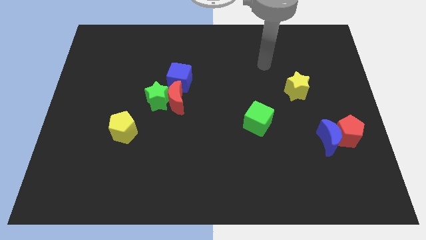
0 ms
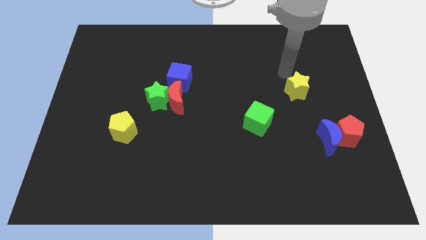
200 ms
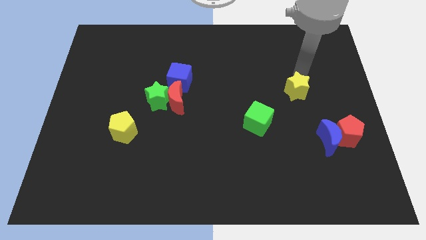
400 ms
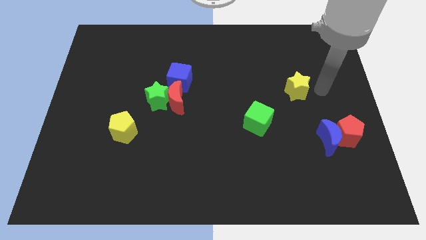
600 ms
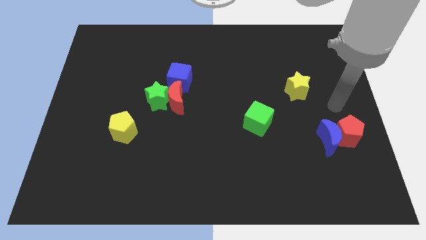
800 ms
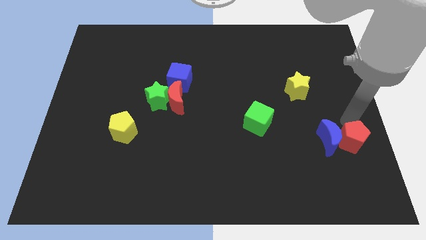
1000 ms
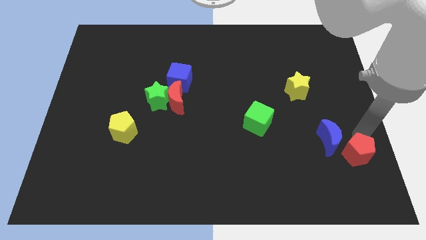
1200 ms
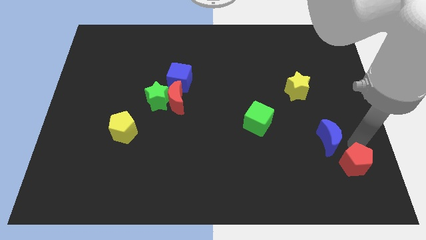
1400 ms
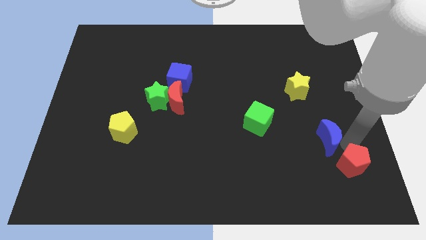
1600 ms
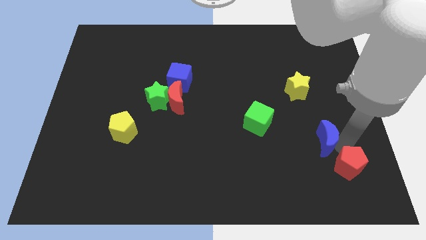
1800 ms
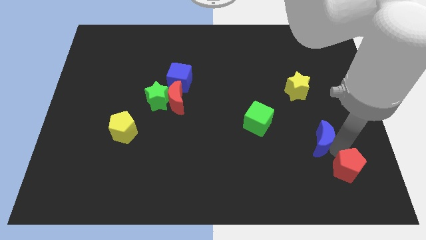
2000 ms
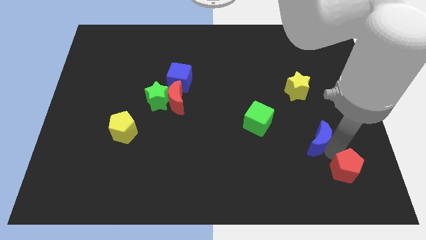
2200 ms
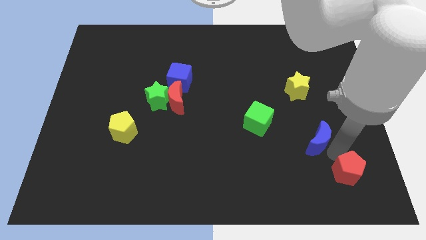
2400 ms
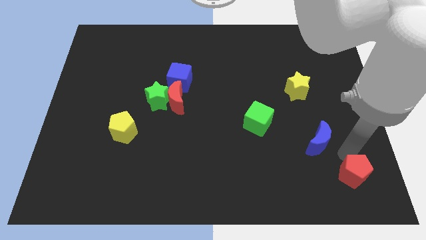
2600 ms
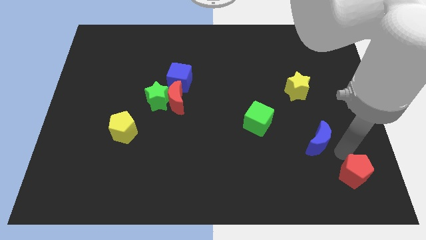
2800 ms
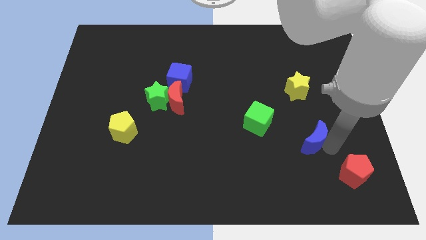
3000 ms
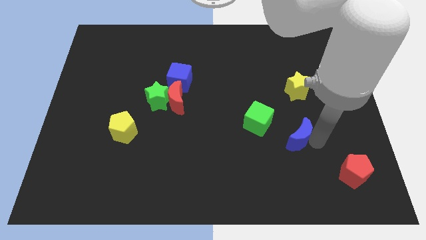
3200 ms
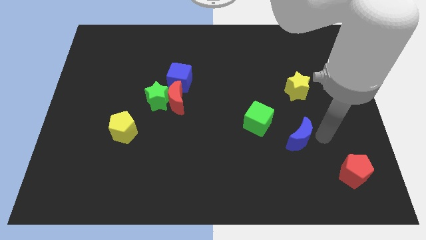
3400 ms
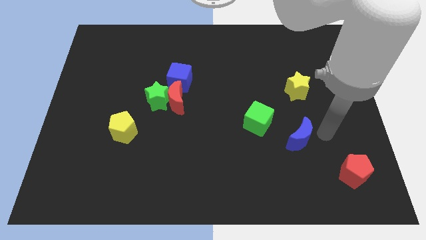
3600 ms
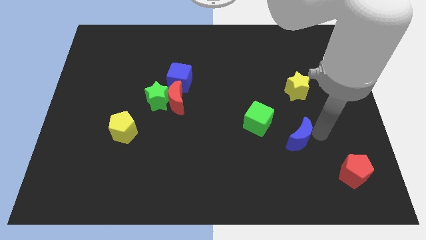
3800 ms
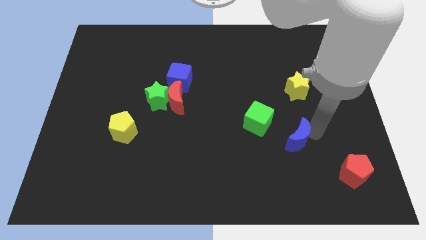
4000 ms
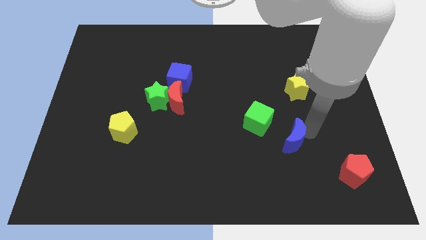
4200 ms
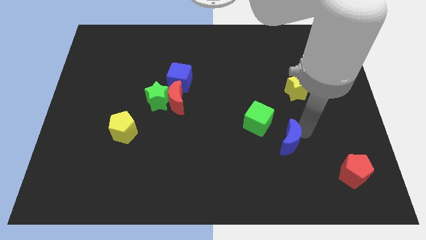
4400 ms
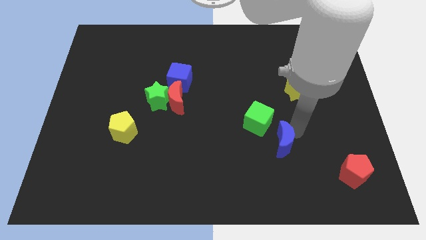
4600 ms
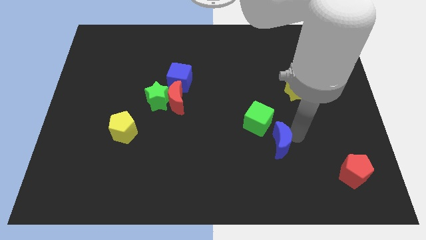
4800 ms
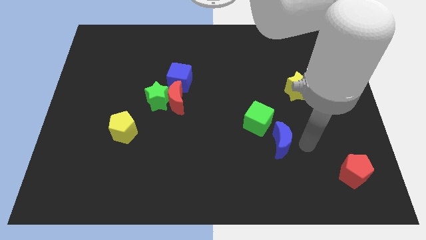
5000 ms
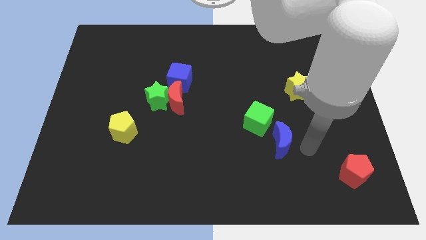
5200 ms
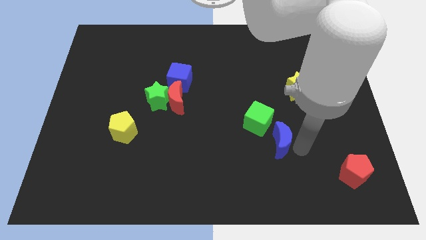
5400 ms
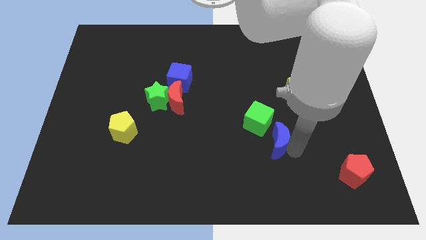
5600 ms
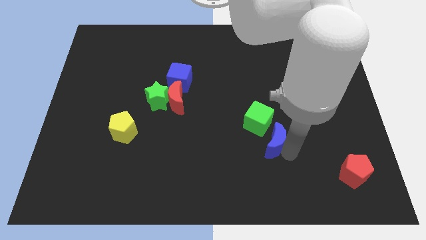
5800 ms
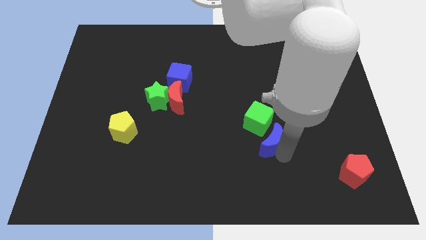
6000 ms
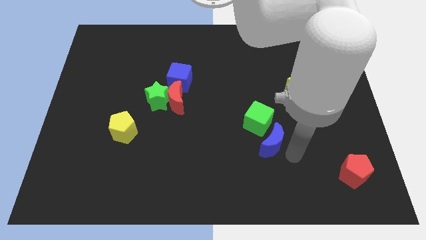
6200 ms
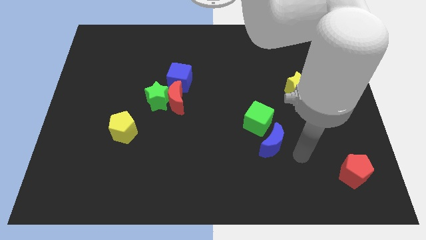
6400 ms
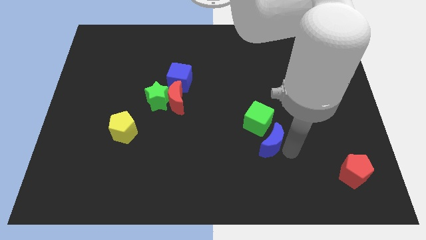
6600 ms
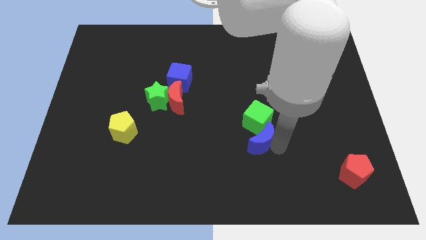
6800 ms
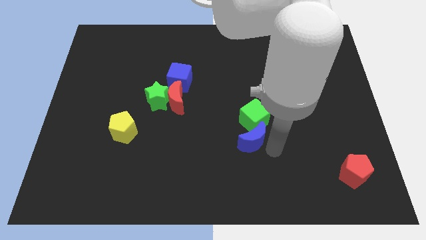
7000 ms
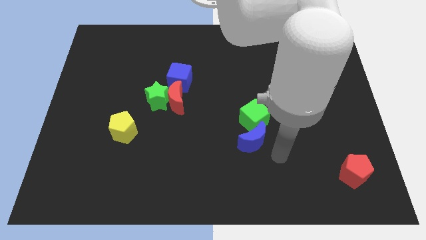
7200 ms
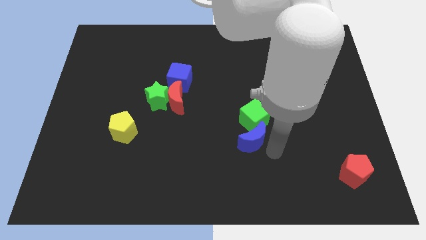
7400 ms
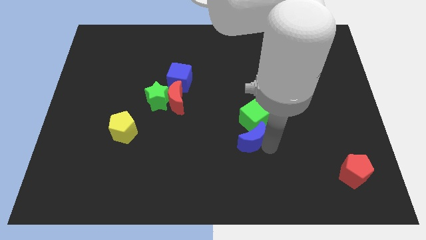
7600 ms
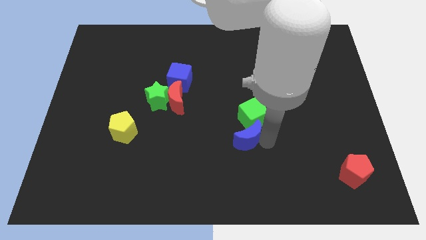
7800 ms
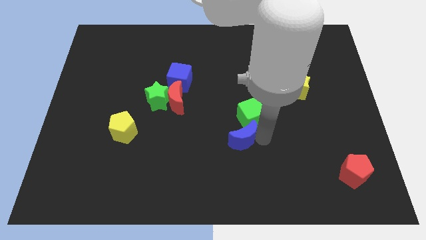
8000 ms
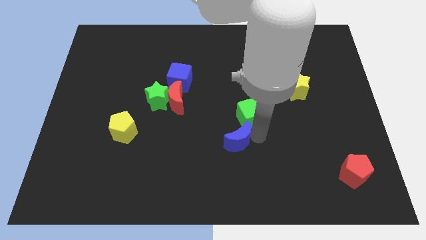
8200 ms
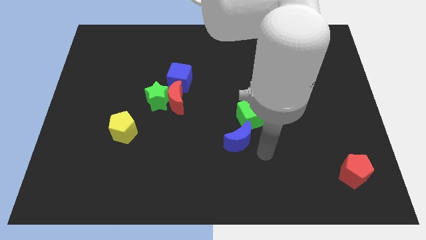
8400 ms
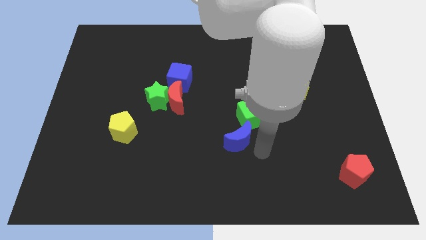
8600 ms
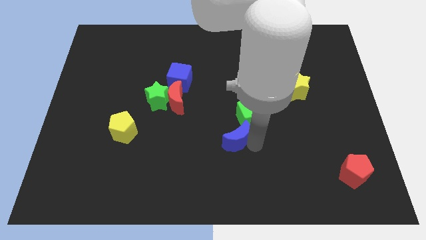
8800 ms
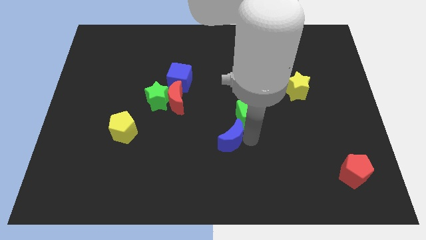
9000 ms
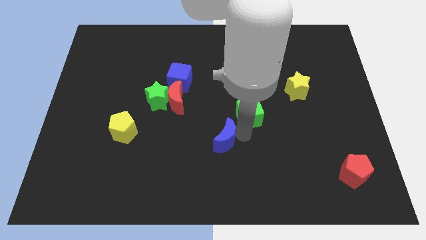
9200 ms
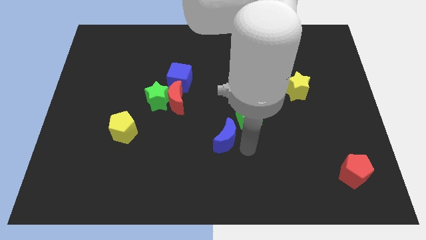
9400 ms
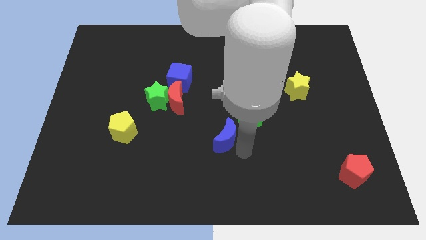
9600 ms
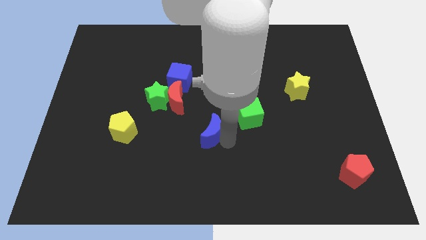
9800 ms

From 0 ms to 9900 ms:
put the blue moon to the bottom right of the red moon

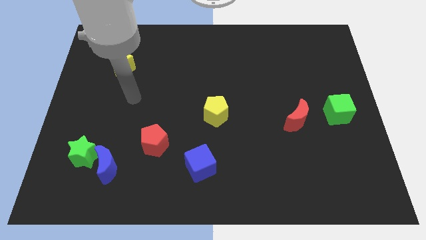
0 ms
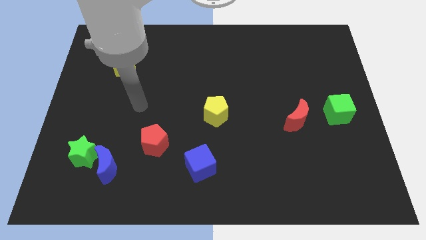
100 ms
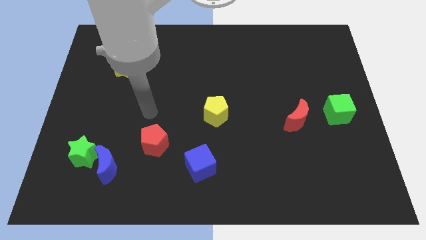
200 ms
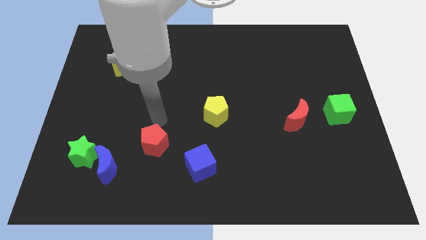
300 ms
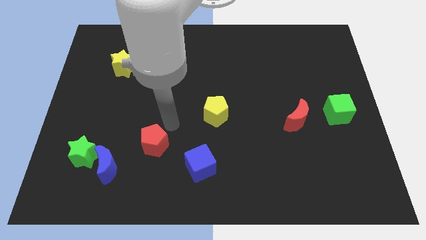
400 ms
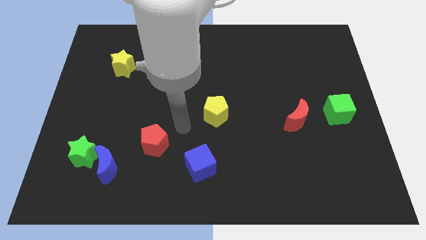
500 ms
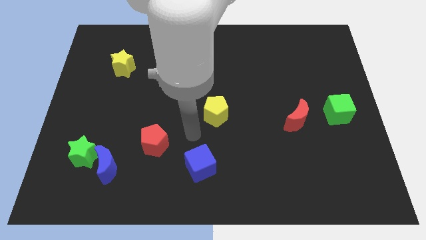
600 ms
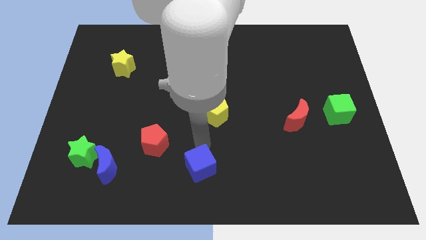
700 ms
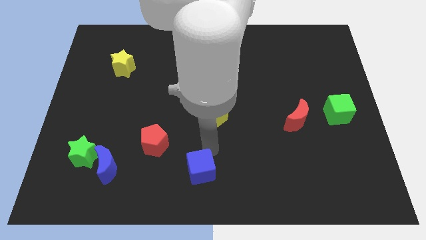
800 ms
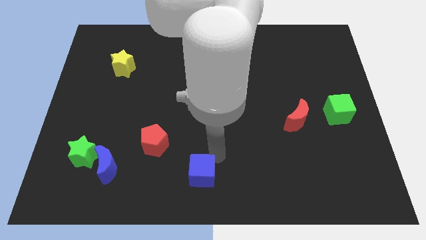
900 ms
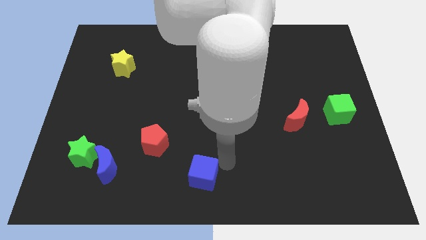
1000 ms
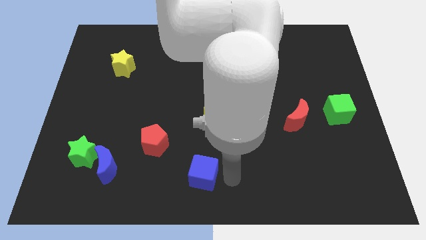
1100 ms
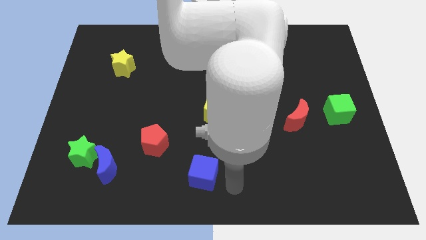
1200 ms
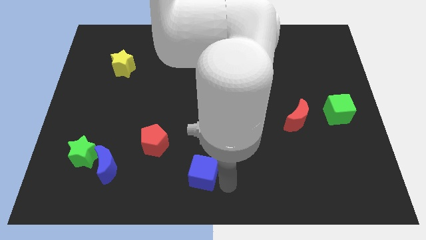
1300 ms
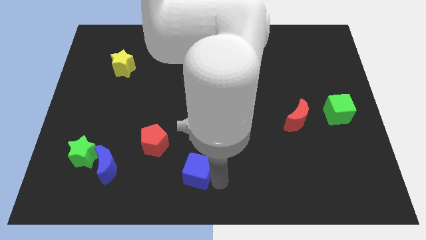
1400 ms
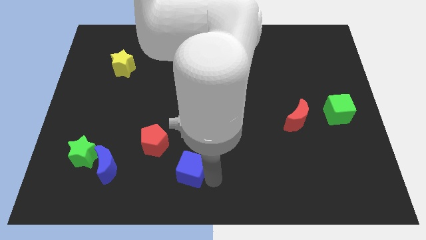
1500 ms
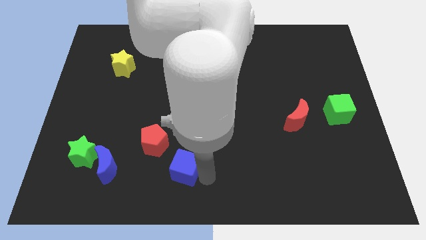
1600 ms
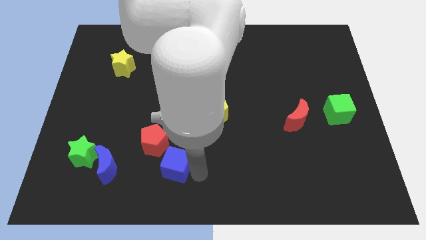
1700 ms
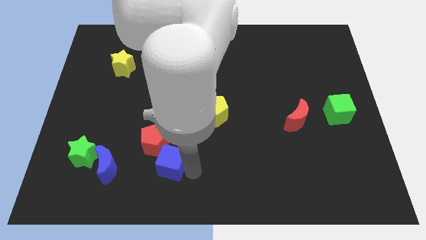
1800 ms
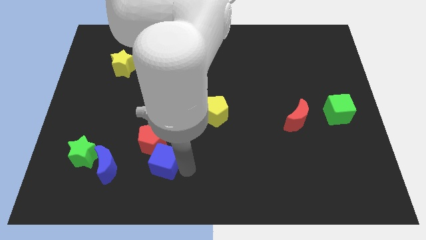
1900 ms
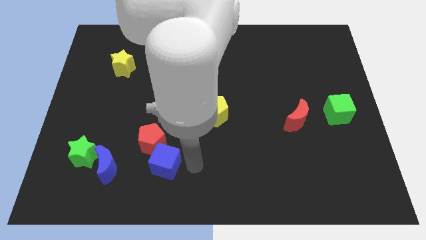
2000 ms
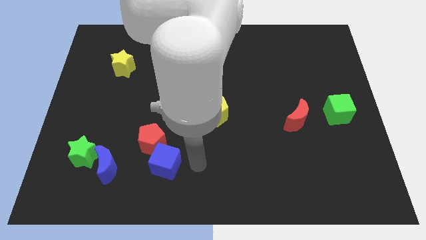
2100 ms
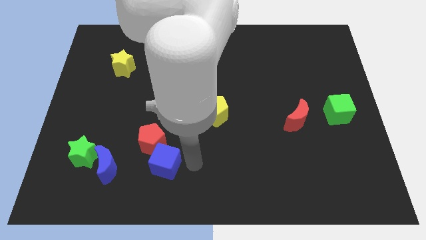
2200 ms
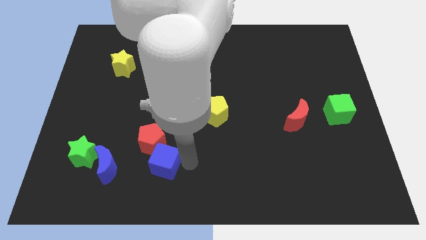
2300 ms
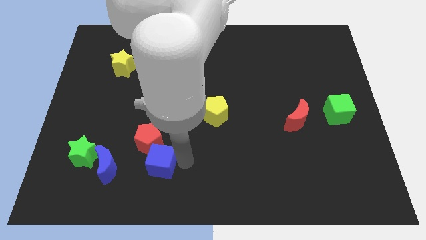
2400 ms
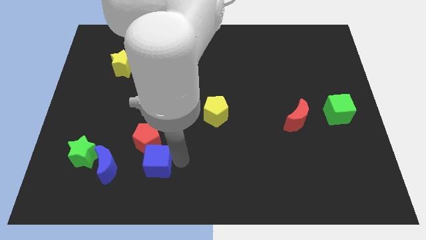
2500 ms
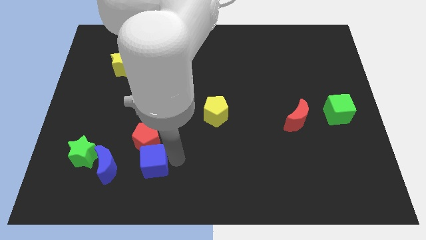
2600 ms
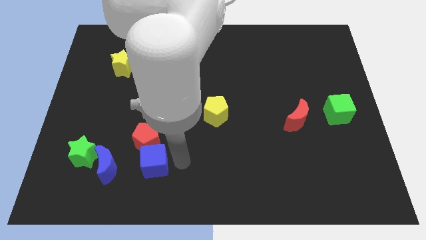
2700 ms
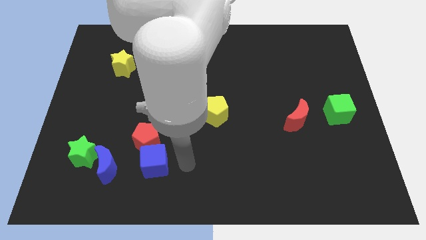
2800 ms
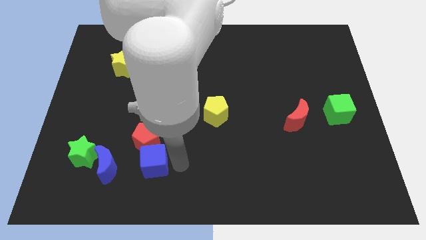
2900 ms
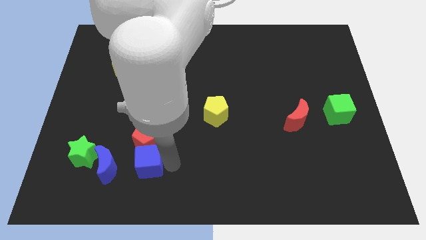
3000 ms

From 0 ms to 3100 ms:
move the blue cube to the bottom left of the red pentagon
